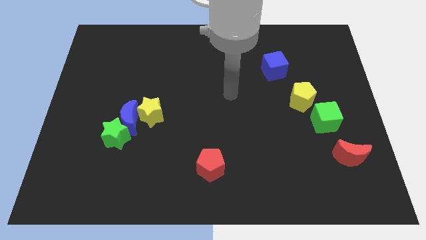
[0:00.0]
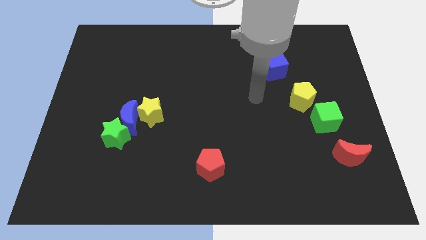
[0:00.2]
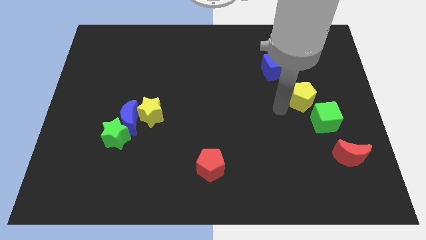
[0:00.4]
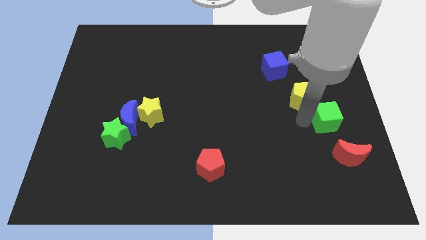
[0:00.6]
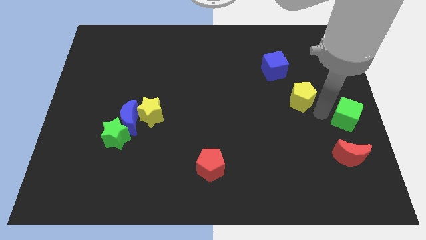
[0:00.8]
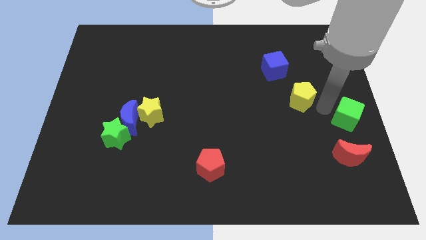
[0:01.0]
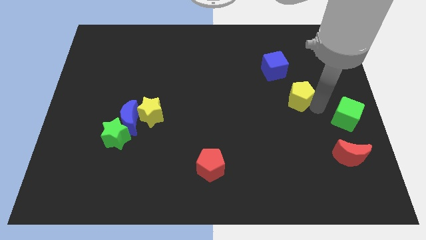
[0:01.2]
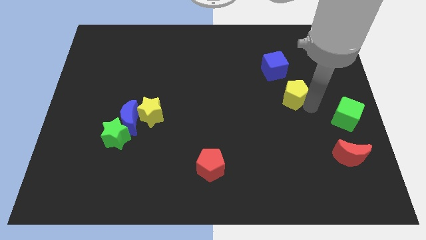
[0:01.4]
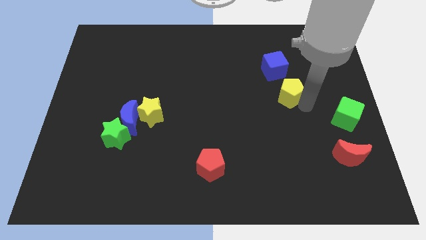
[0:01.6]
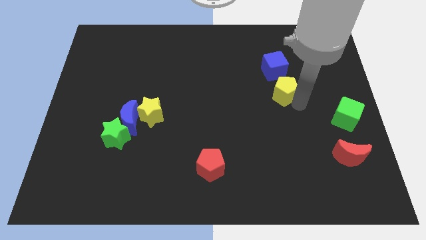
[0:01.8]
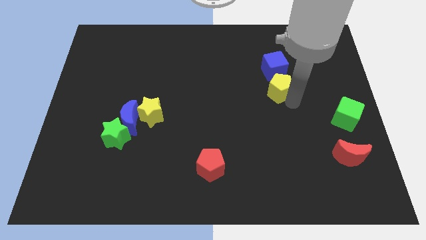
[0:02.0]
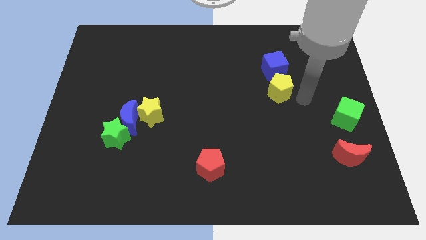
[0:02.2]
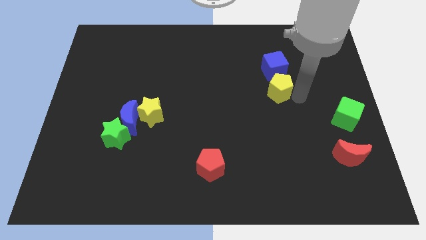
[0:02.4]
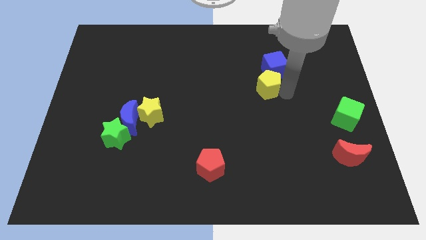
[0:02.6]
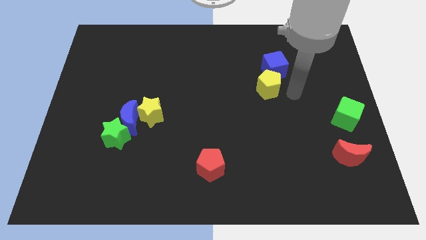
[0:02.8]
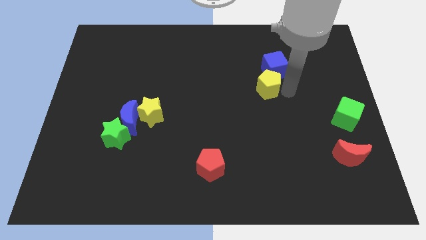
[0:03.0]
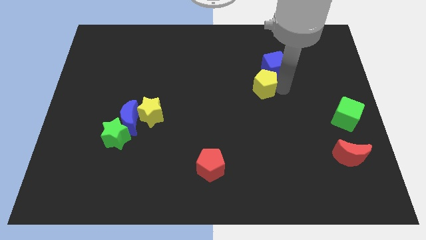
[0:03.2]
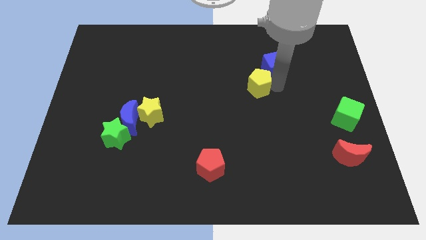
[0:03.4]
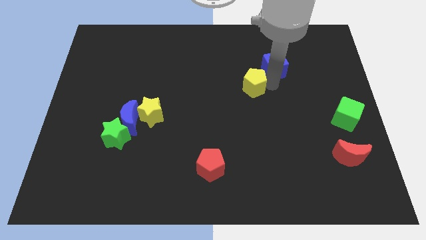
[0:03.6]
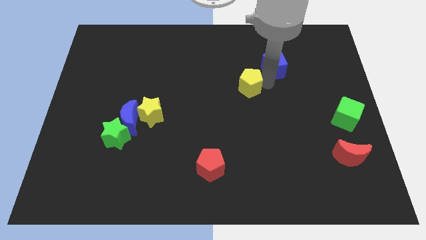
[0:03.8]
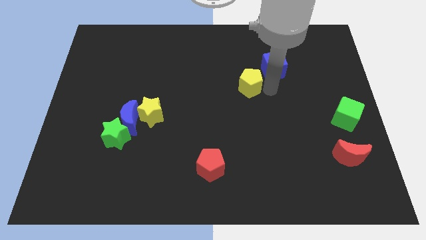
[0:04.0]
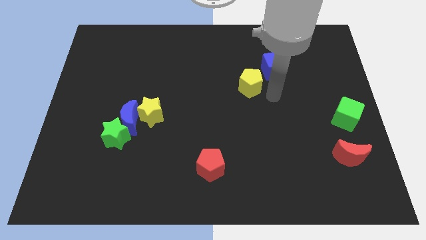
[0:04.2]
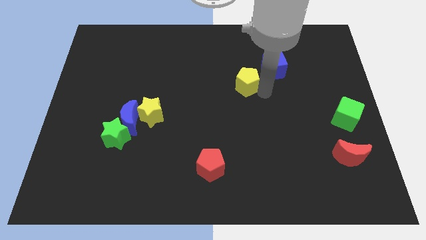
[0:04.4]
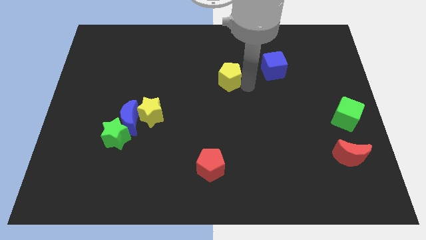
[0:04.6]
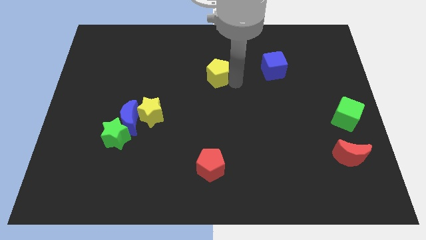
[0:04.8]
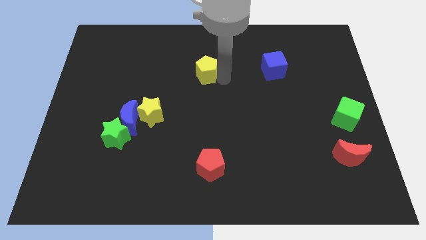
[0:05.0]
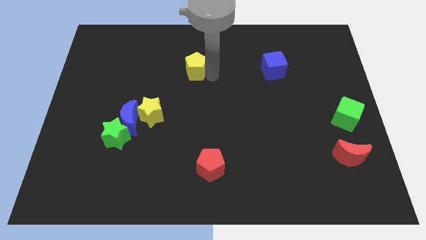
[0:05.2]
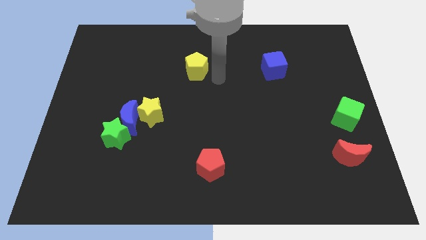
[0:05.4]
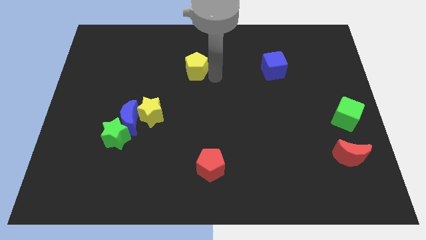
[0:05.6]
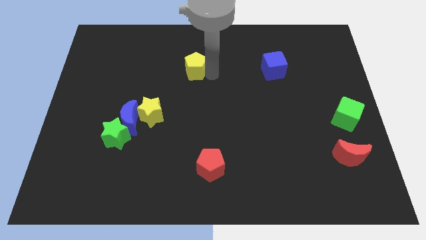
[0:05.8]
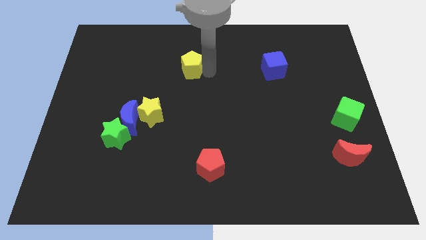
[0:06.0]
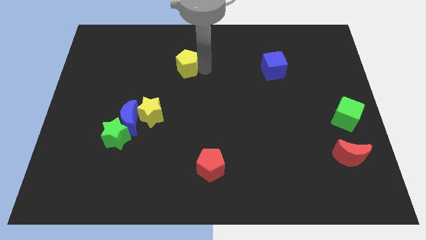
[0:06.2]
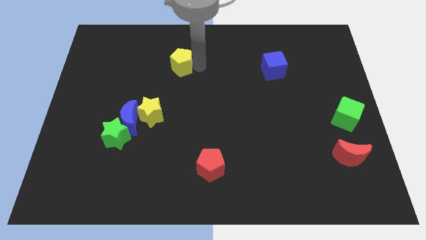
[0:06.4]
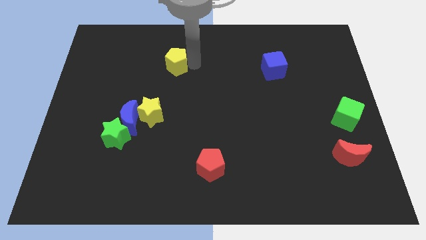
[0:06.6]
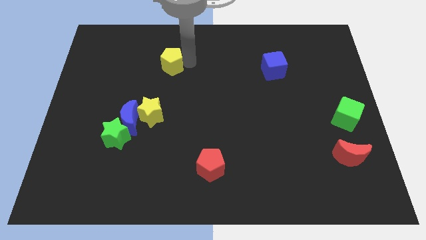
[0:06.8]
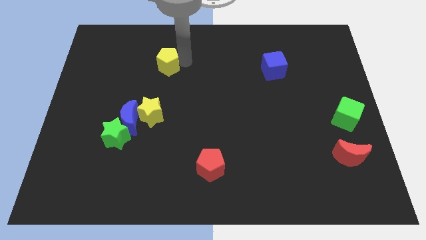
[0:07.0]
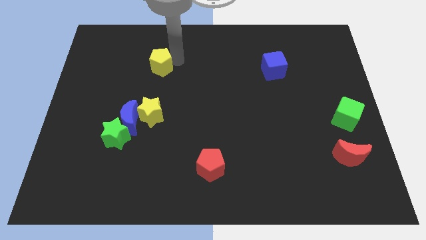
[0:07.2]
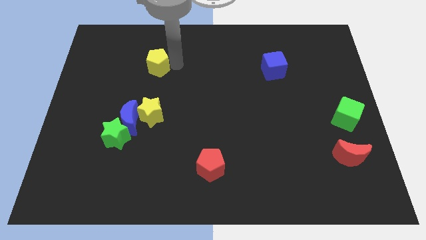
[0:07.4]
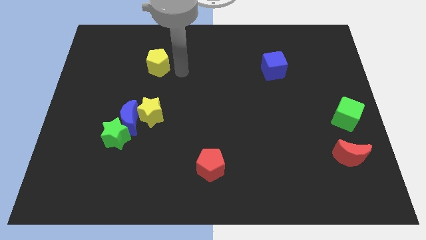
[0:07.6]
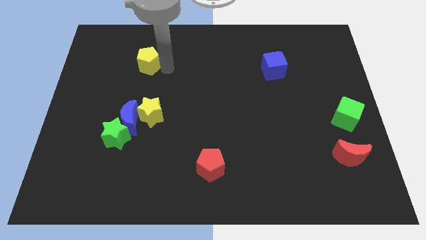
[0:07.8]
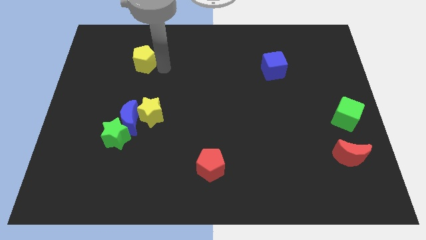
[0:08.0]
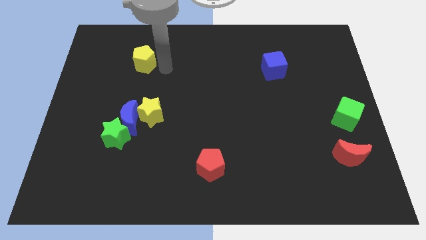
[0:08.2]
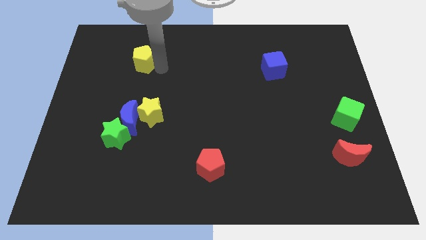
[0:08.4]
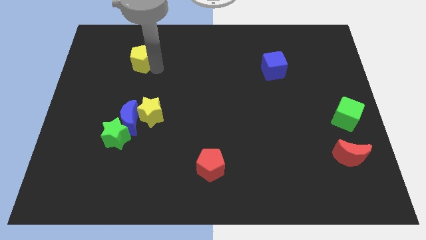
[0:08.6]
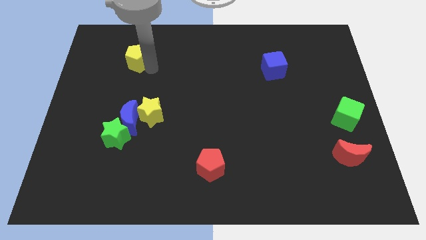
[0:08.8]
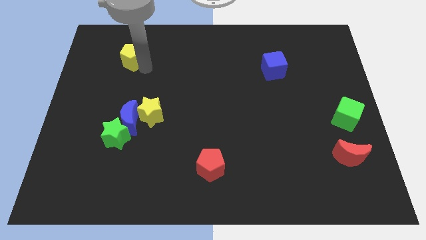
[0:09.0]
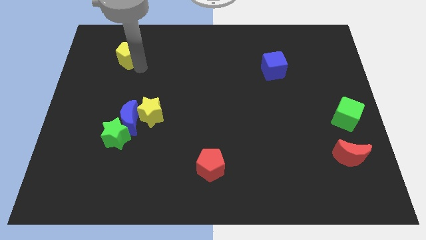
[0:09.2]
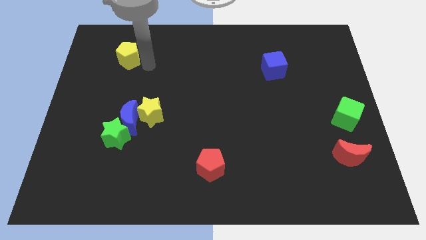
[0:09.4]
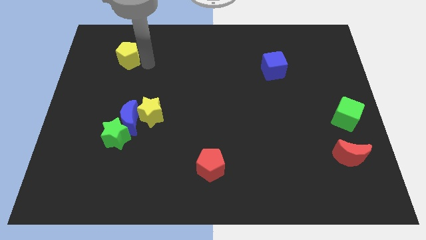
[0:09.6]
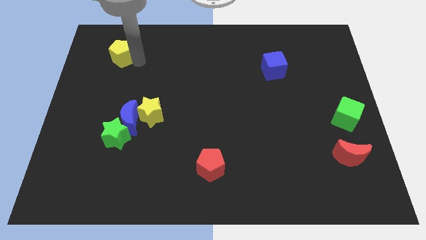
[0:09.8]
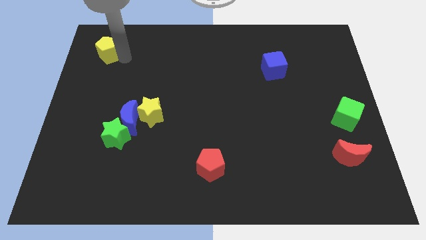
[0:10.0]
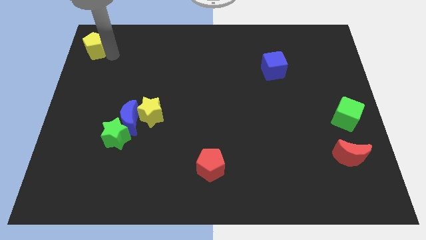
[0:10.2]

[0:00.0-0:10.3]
move the yellow pentagon to the top left of the board

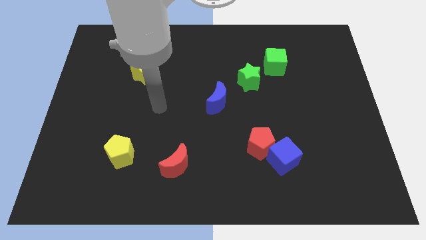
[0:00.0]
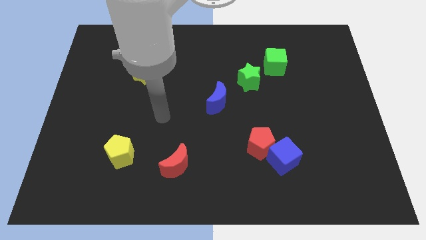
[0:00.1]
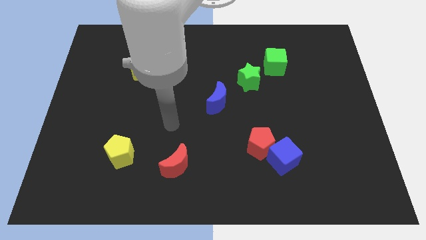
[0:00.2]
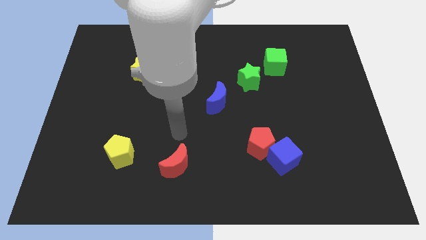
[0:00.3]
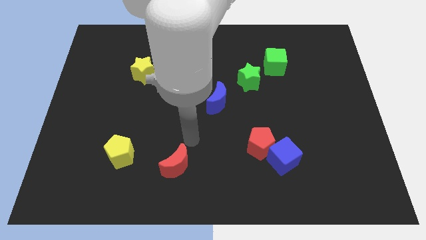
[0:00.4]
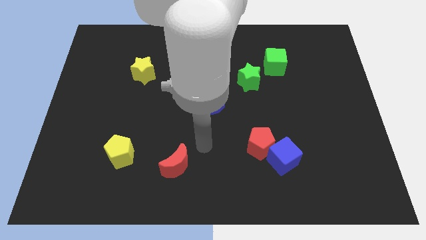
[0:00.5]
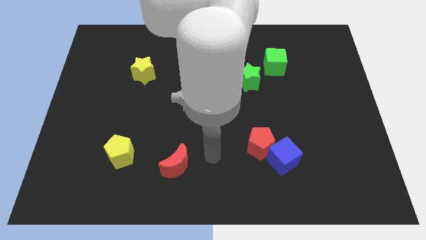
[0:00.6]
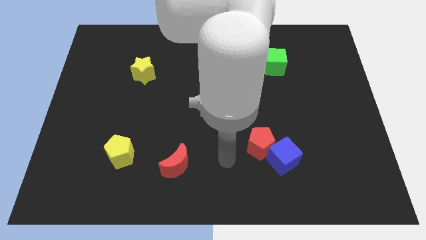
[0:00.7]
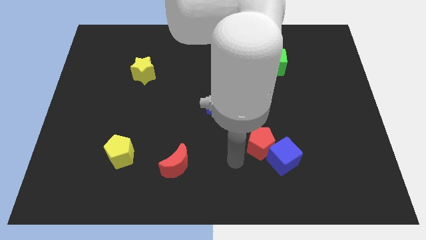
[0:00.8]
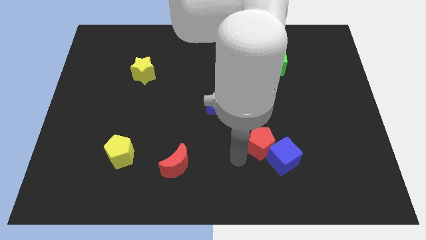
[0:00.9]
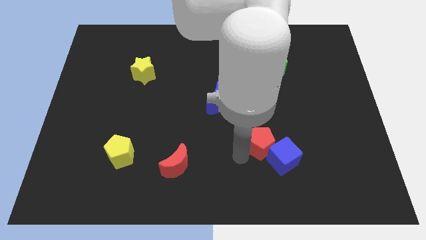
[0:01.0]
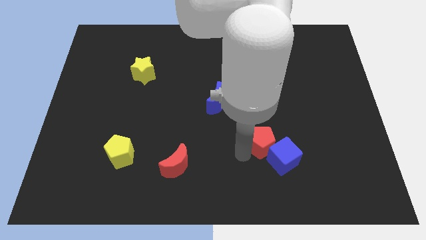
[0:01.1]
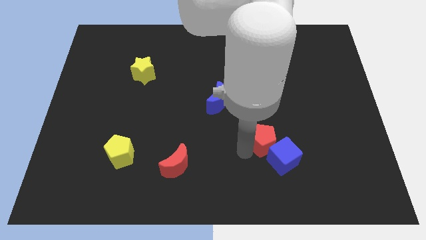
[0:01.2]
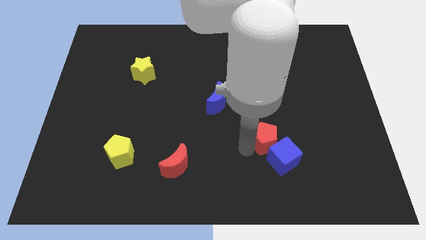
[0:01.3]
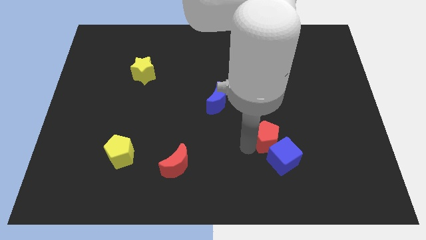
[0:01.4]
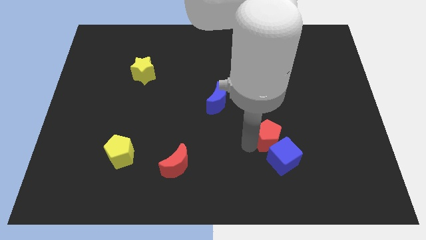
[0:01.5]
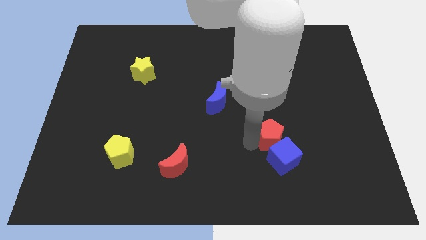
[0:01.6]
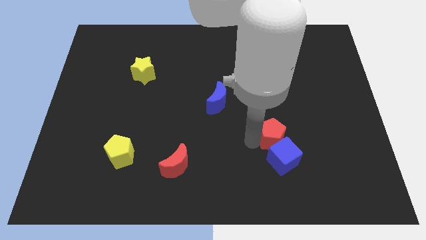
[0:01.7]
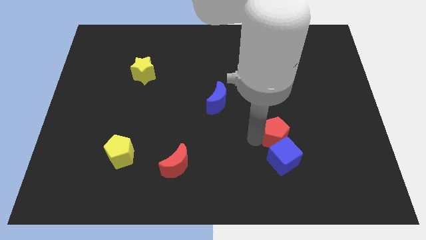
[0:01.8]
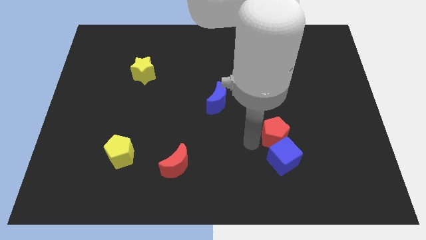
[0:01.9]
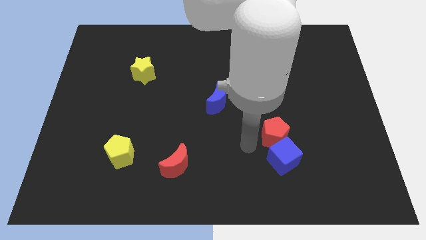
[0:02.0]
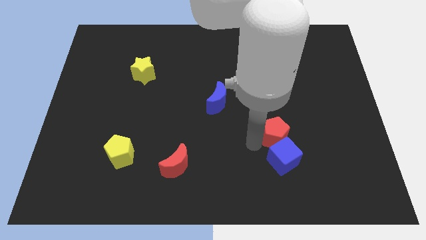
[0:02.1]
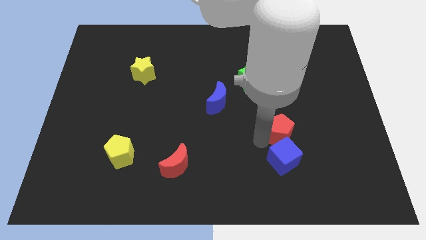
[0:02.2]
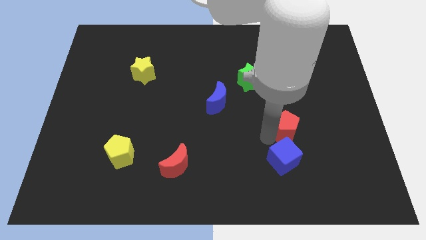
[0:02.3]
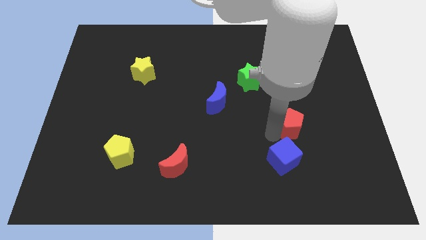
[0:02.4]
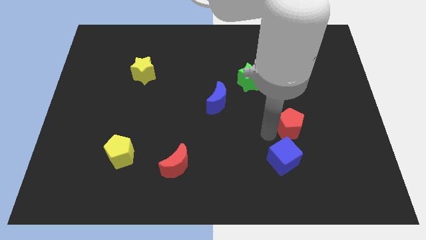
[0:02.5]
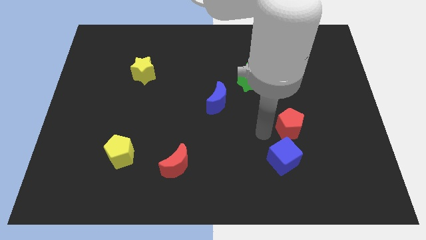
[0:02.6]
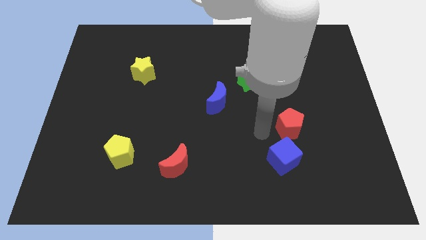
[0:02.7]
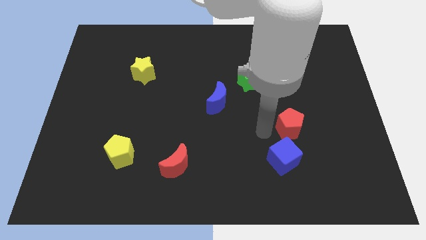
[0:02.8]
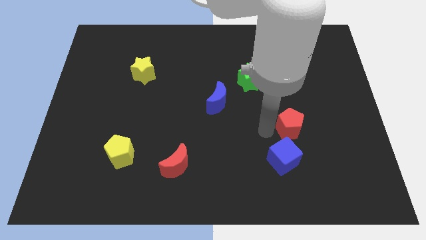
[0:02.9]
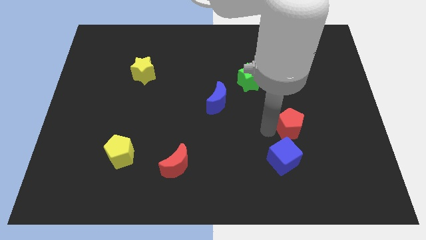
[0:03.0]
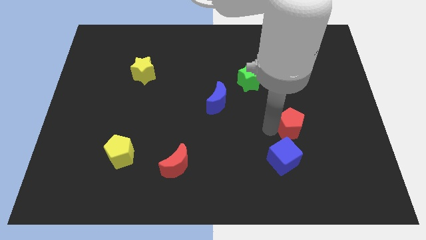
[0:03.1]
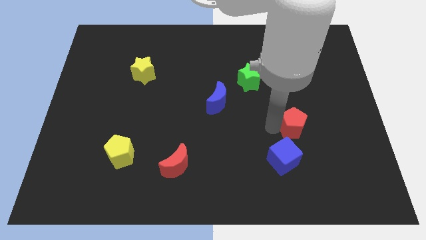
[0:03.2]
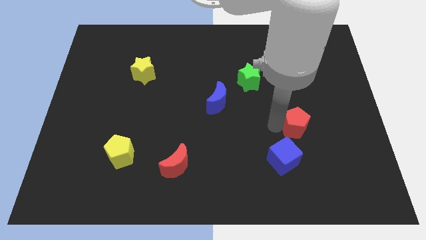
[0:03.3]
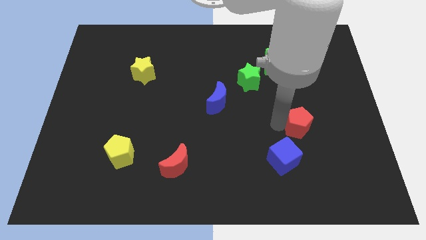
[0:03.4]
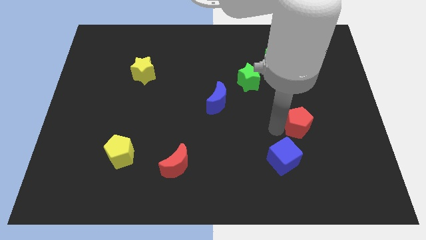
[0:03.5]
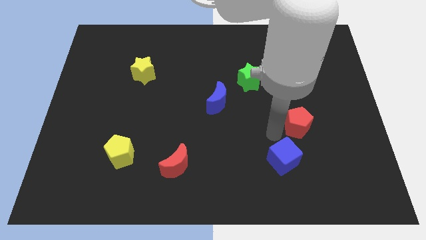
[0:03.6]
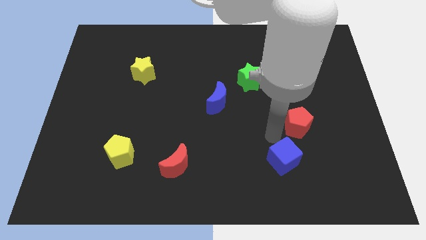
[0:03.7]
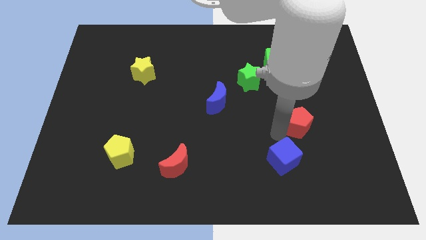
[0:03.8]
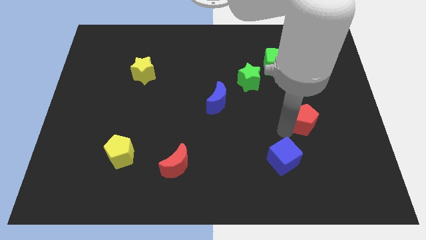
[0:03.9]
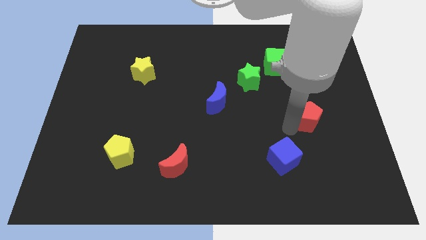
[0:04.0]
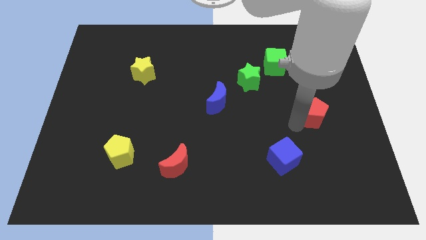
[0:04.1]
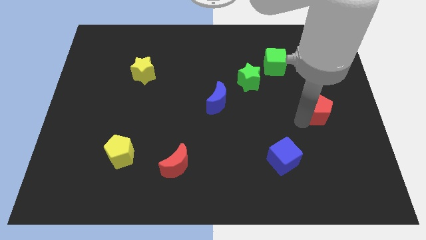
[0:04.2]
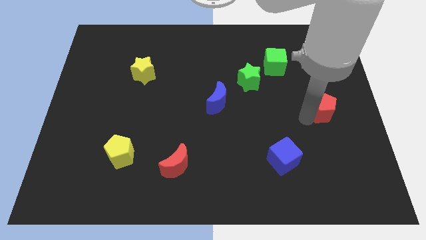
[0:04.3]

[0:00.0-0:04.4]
put the red pentagon to the center right
